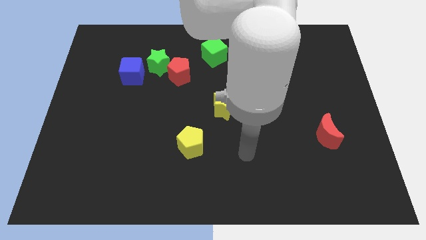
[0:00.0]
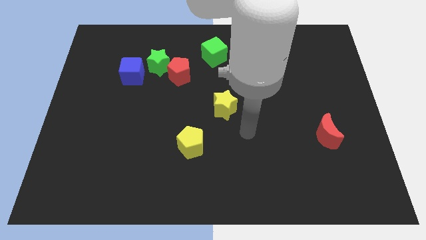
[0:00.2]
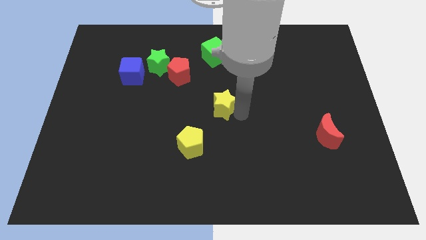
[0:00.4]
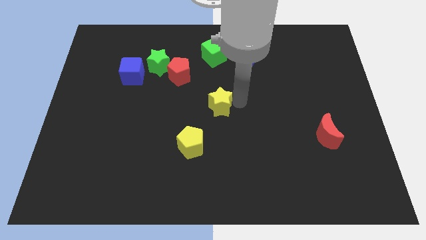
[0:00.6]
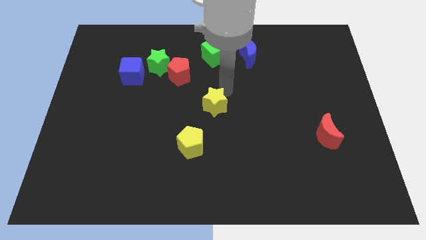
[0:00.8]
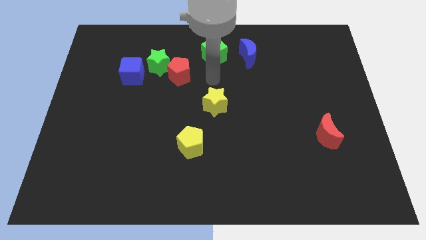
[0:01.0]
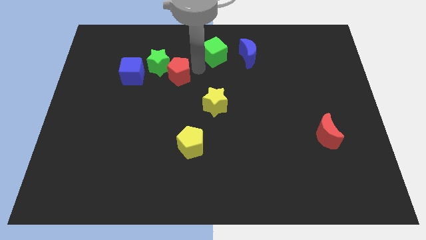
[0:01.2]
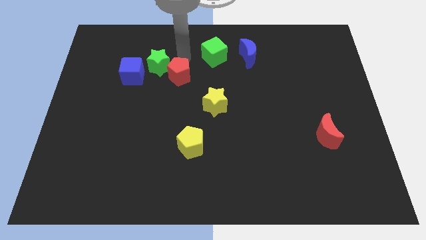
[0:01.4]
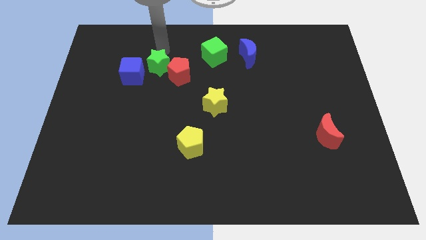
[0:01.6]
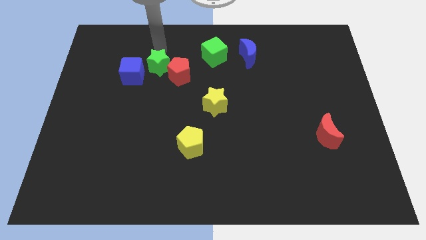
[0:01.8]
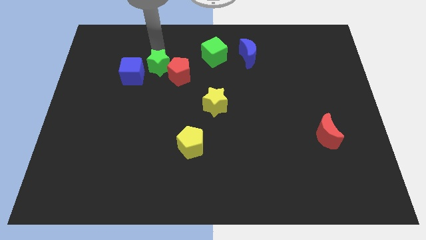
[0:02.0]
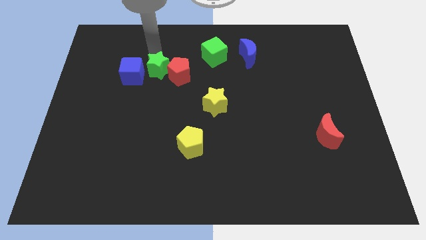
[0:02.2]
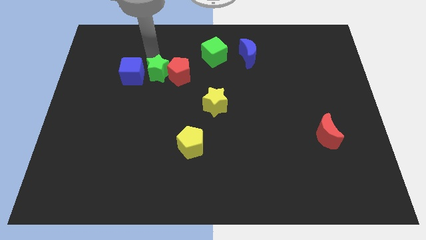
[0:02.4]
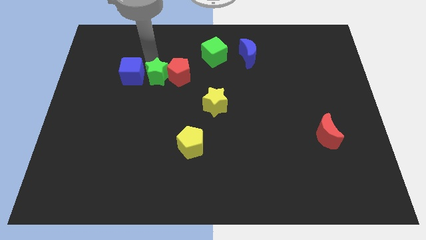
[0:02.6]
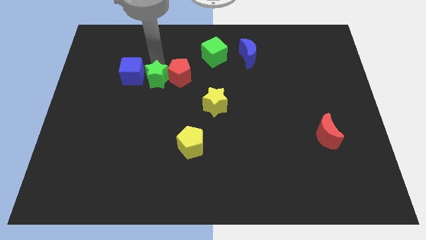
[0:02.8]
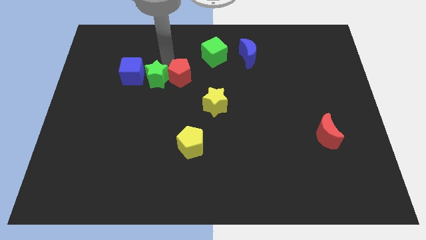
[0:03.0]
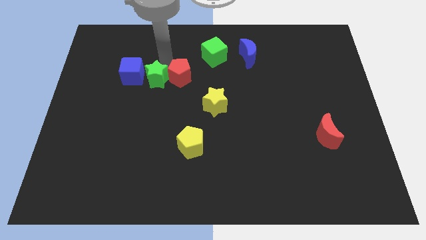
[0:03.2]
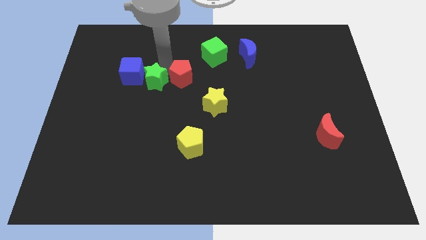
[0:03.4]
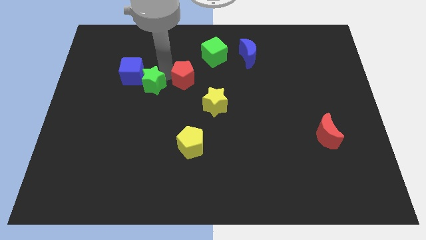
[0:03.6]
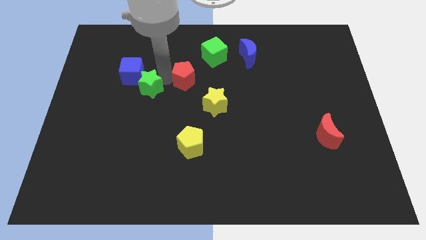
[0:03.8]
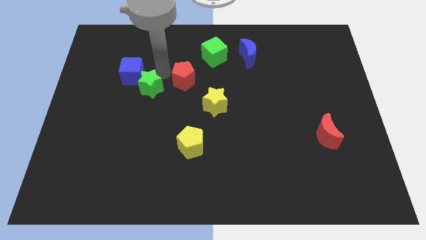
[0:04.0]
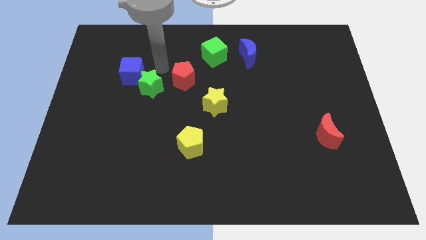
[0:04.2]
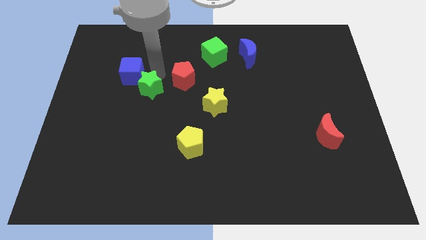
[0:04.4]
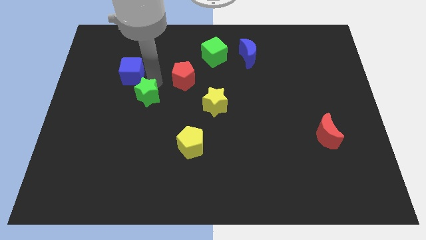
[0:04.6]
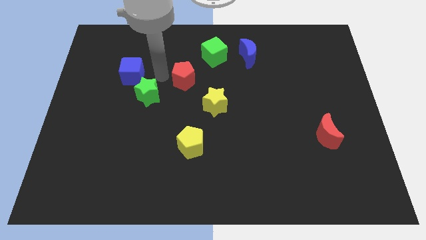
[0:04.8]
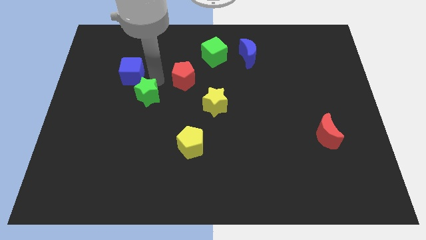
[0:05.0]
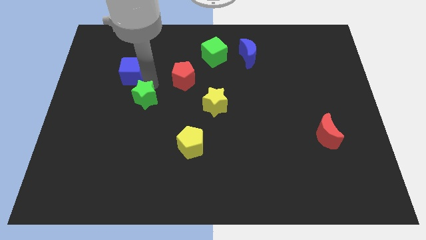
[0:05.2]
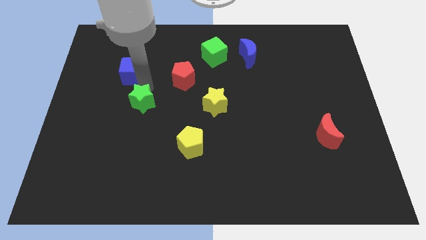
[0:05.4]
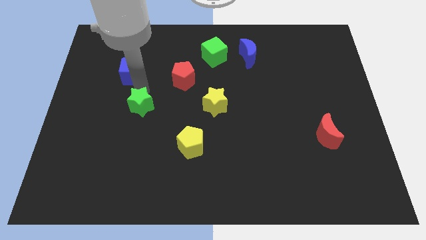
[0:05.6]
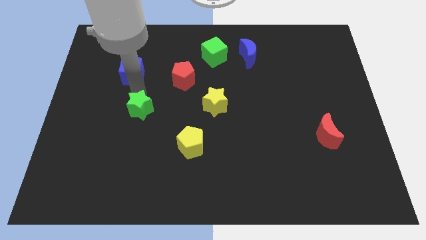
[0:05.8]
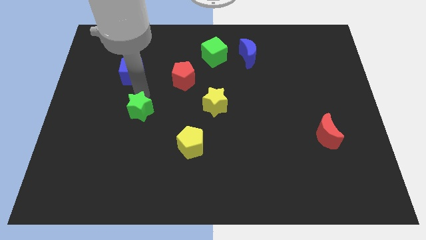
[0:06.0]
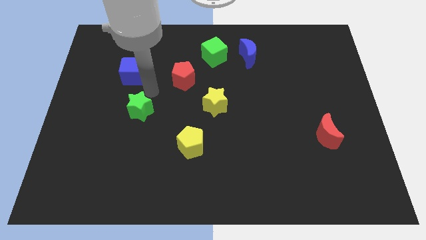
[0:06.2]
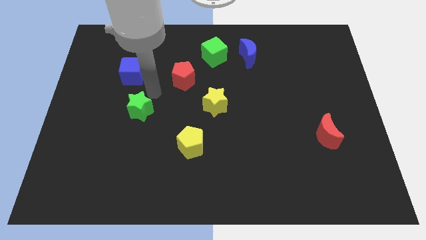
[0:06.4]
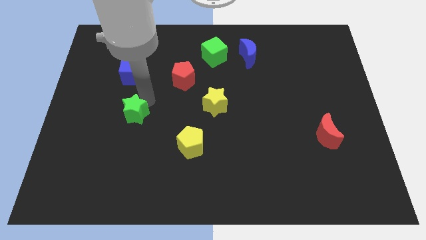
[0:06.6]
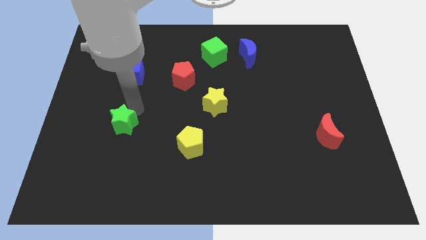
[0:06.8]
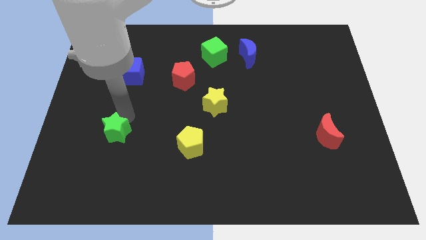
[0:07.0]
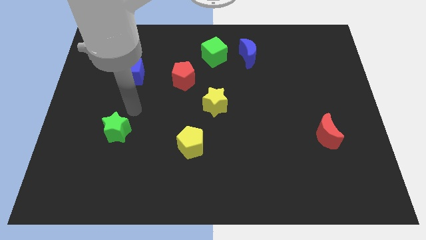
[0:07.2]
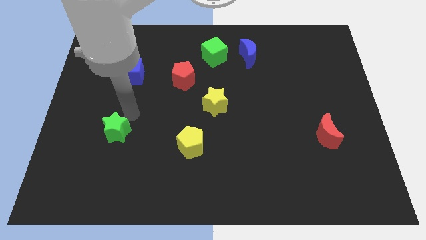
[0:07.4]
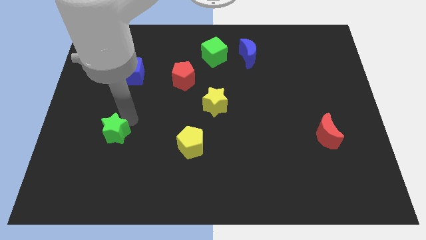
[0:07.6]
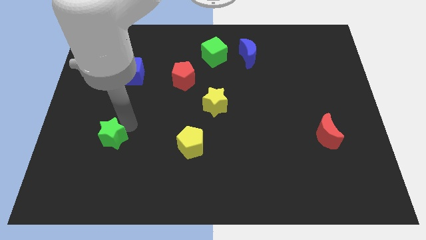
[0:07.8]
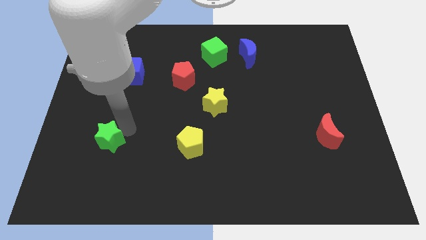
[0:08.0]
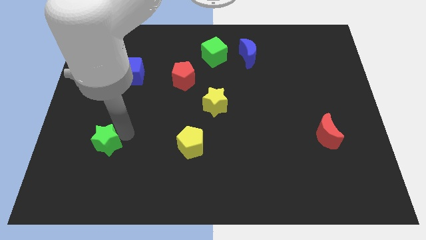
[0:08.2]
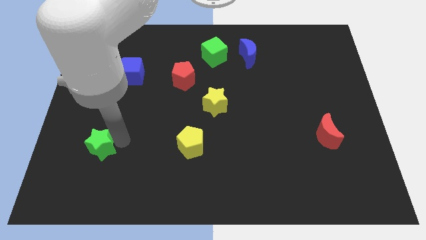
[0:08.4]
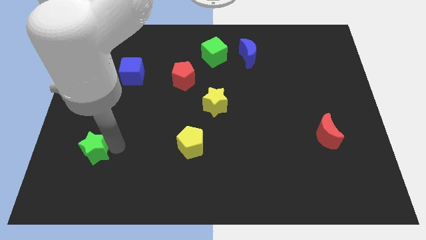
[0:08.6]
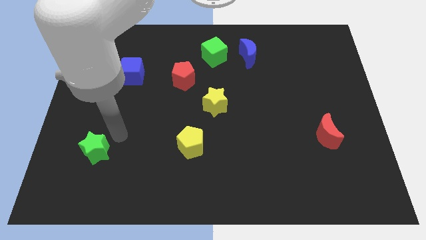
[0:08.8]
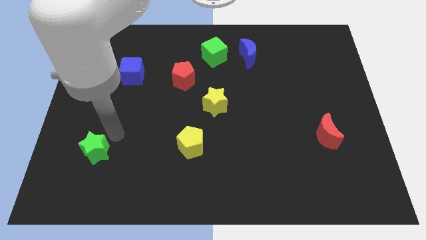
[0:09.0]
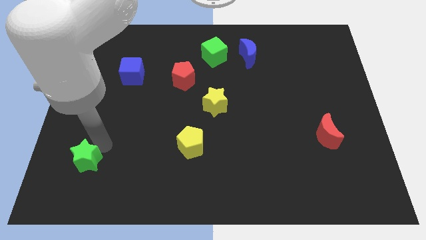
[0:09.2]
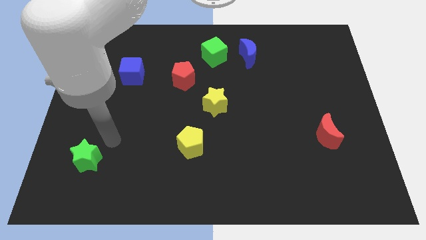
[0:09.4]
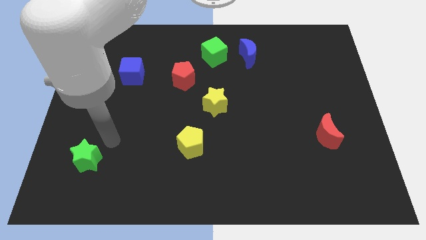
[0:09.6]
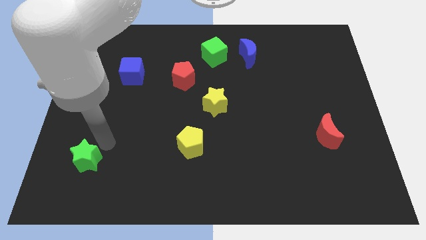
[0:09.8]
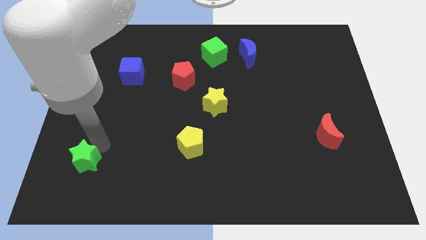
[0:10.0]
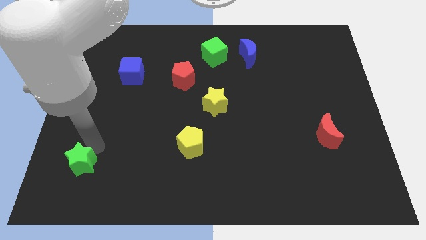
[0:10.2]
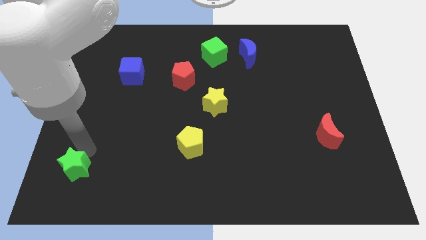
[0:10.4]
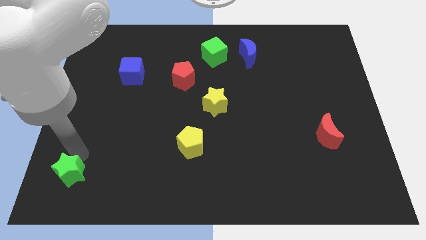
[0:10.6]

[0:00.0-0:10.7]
put the green star to the bottom left of the board
